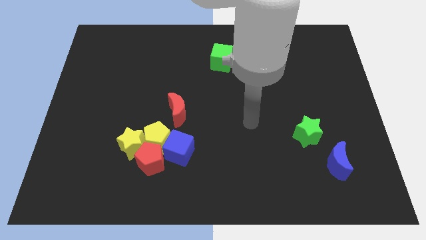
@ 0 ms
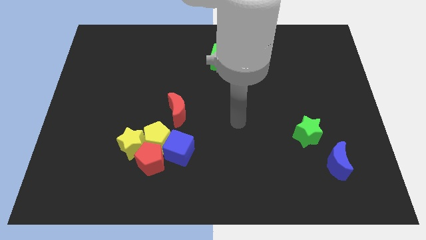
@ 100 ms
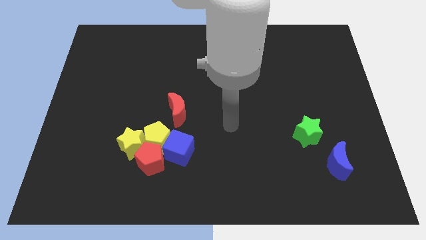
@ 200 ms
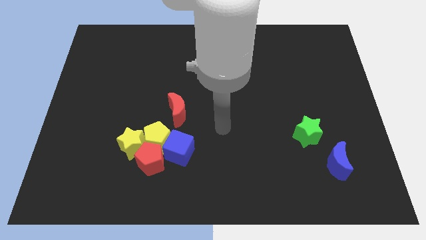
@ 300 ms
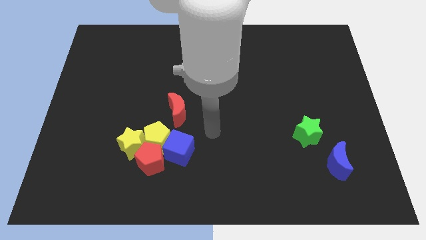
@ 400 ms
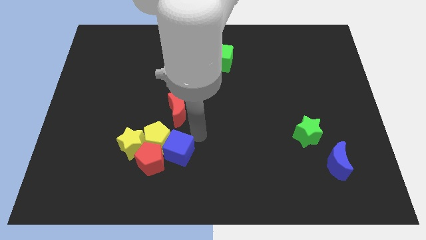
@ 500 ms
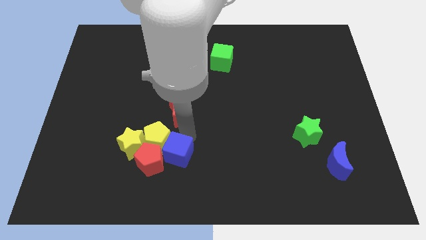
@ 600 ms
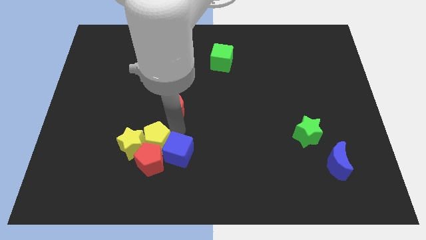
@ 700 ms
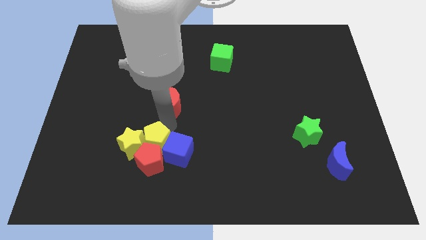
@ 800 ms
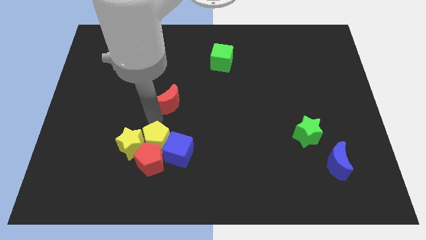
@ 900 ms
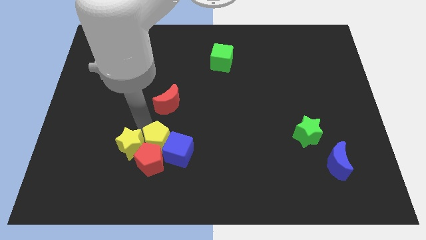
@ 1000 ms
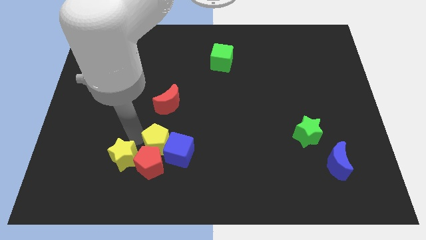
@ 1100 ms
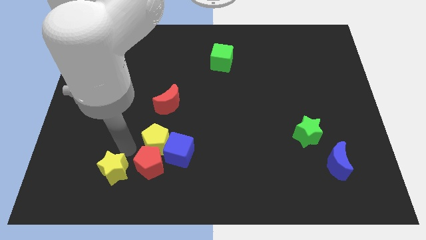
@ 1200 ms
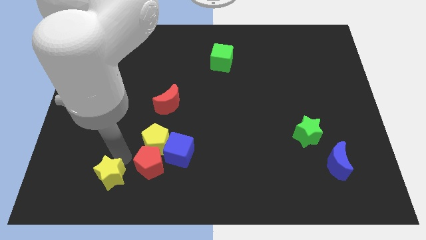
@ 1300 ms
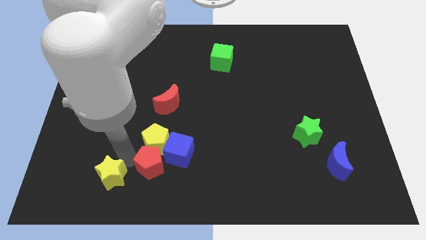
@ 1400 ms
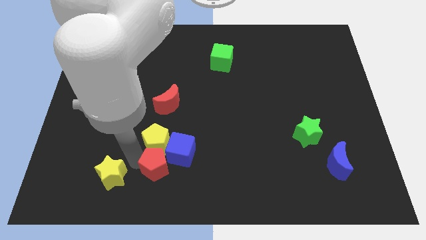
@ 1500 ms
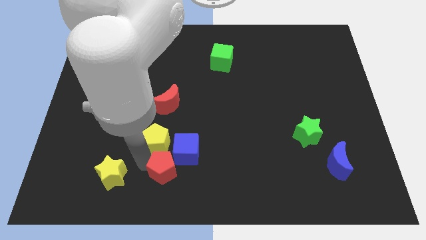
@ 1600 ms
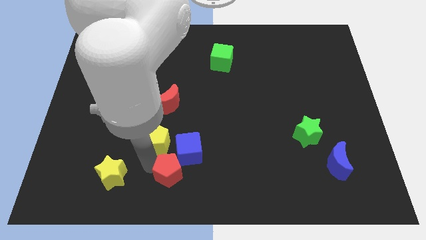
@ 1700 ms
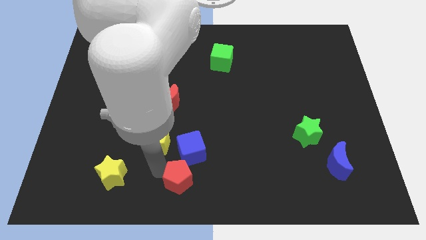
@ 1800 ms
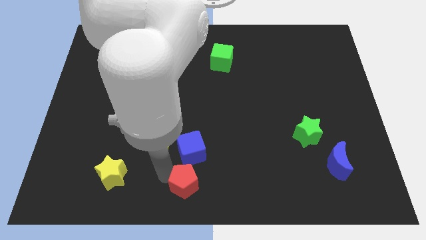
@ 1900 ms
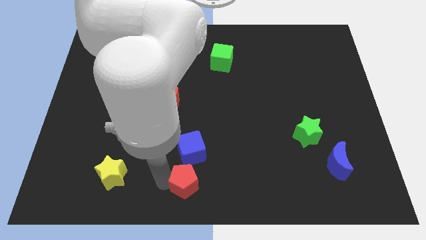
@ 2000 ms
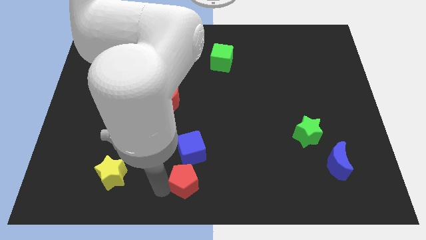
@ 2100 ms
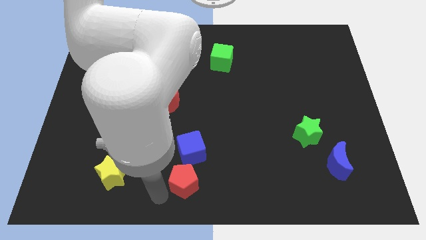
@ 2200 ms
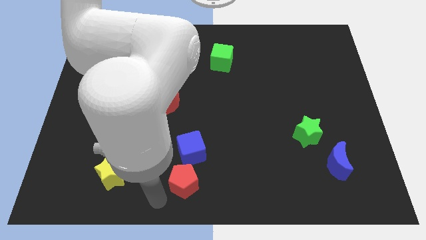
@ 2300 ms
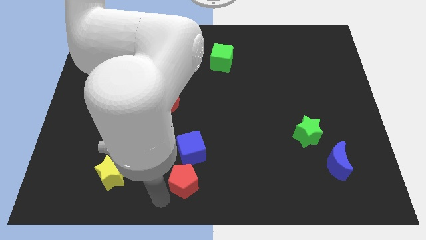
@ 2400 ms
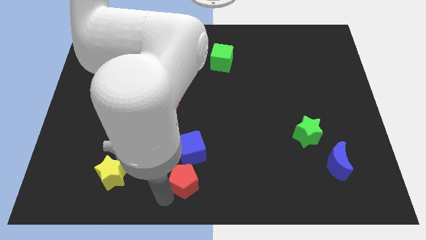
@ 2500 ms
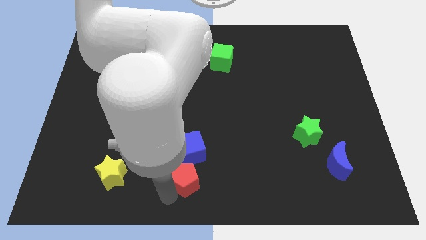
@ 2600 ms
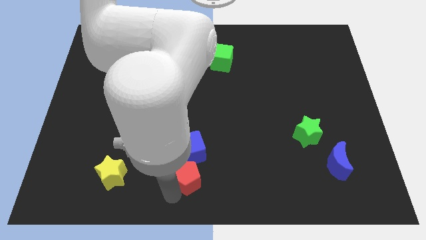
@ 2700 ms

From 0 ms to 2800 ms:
push the red pentagon slightly right

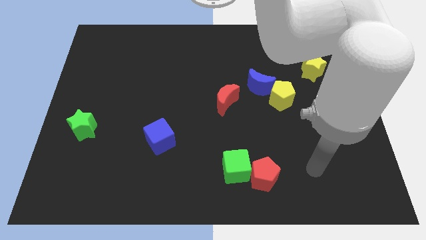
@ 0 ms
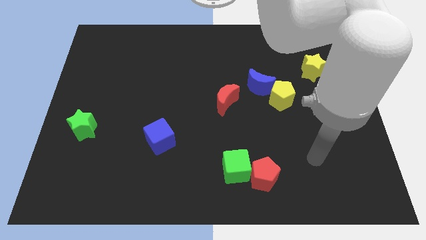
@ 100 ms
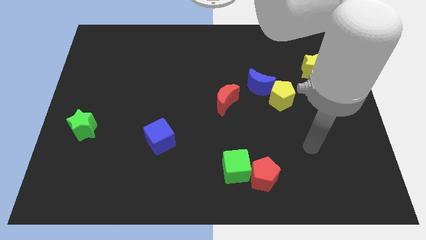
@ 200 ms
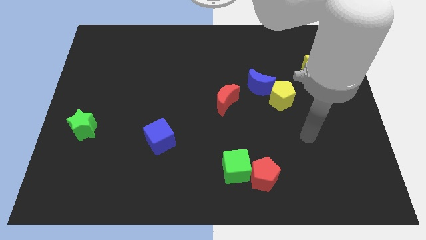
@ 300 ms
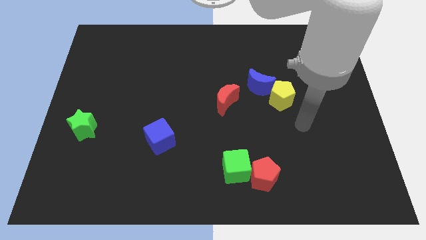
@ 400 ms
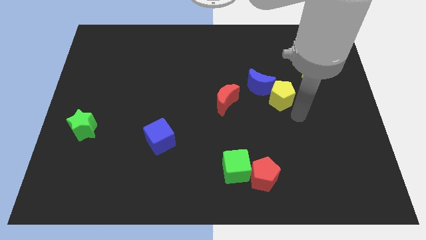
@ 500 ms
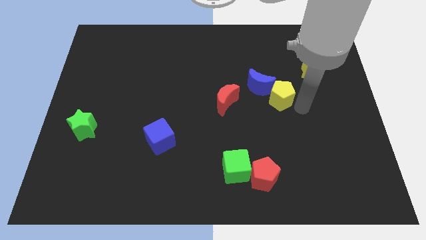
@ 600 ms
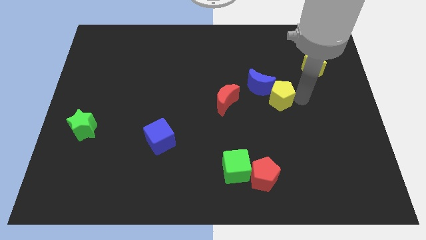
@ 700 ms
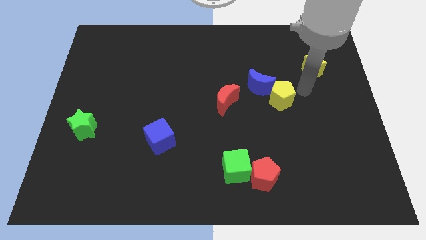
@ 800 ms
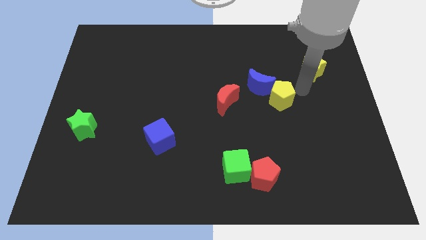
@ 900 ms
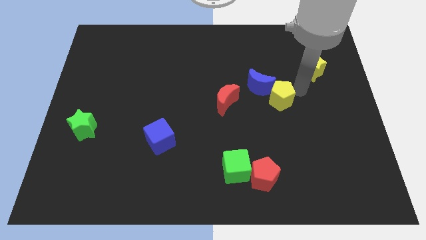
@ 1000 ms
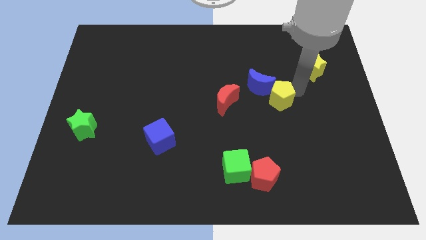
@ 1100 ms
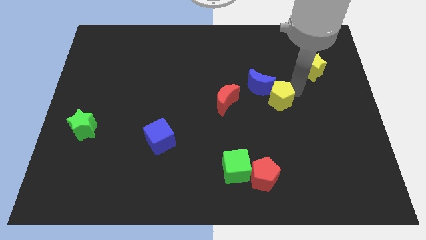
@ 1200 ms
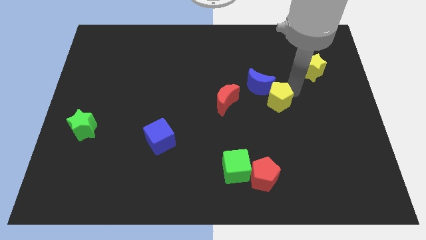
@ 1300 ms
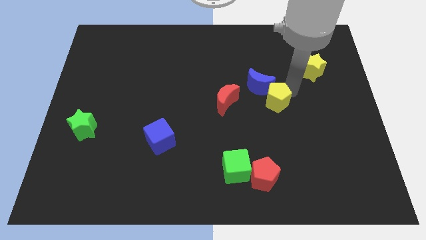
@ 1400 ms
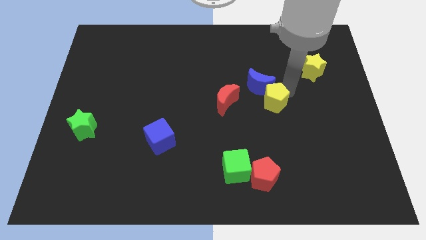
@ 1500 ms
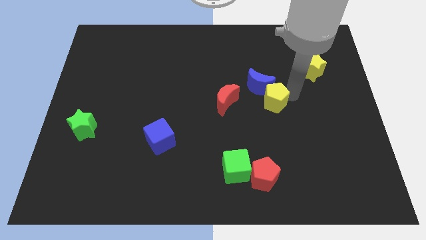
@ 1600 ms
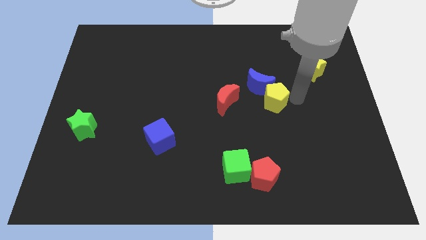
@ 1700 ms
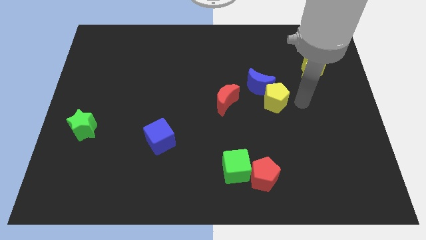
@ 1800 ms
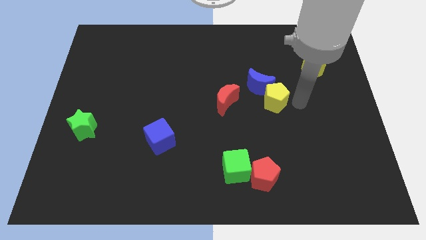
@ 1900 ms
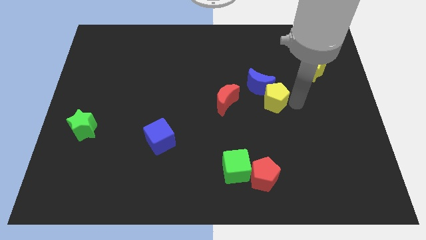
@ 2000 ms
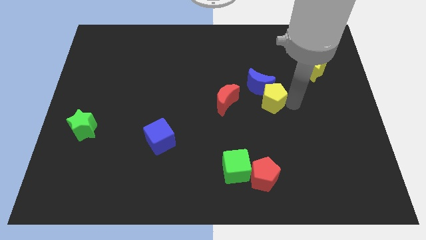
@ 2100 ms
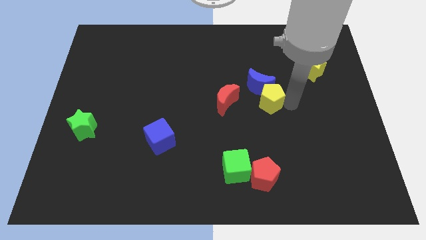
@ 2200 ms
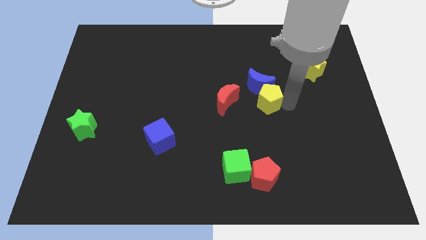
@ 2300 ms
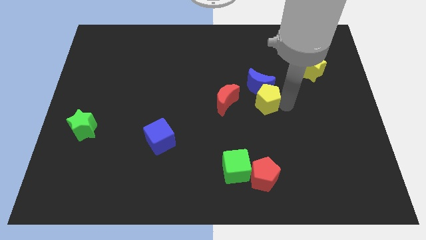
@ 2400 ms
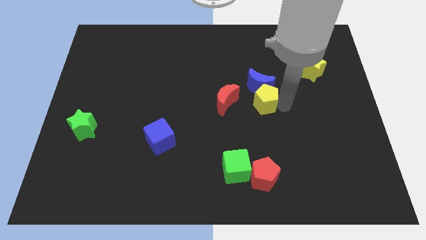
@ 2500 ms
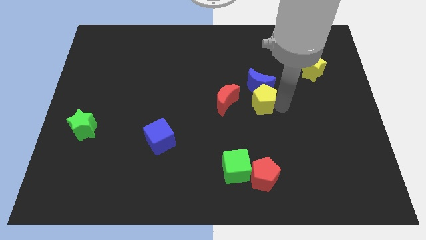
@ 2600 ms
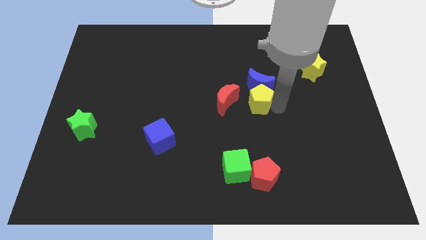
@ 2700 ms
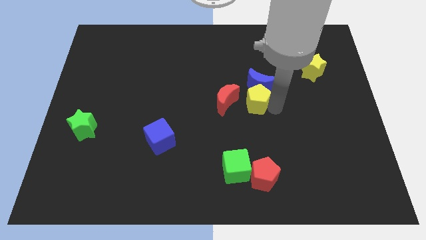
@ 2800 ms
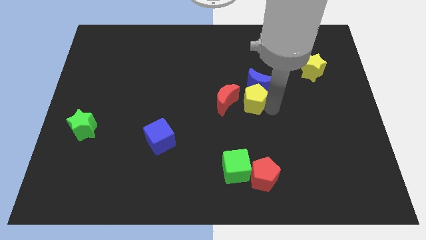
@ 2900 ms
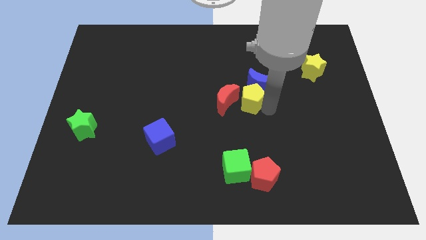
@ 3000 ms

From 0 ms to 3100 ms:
move the yellow pentagon somewhat to the left

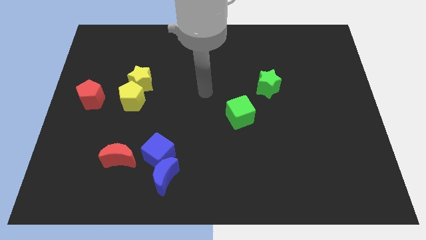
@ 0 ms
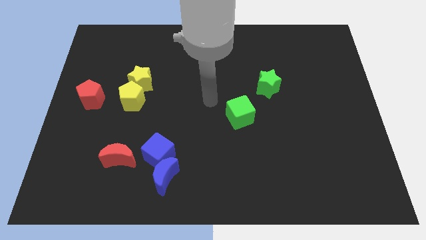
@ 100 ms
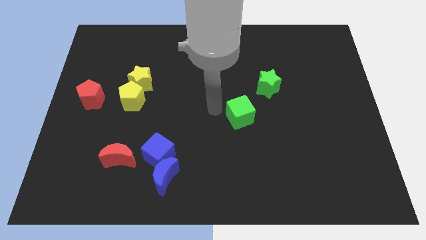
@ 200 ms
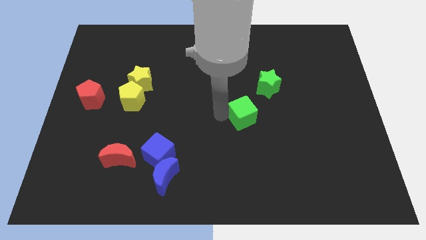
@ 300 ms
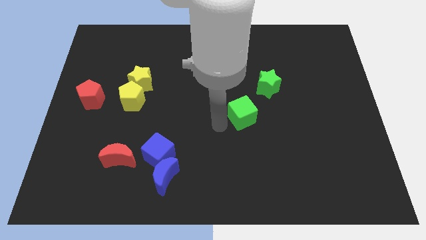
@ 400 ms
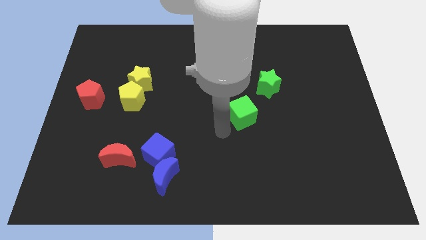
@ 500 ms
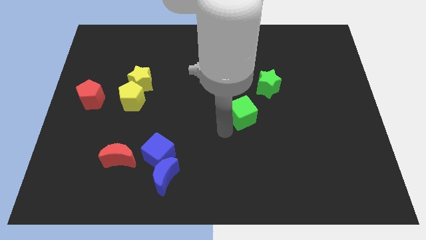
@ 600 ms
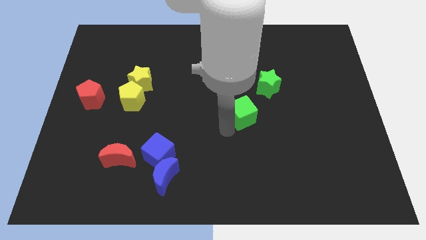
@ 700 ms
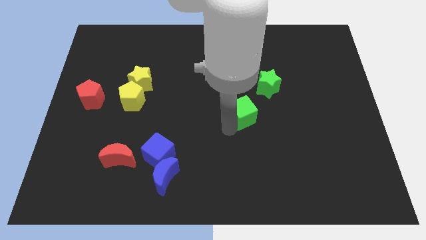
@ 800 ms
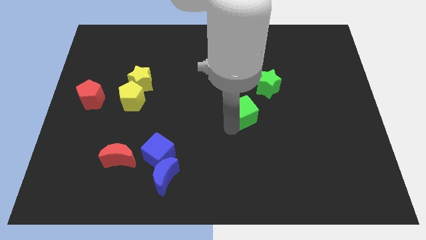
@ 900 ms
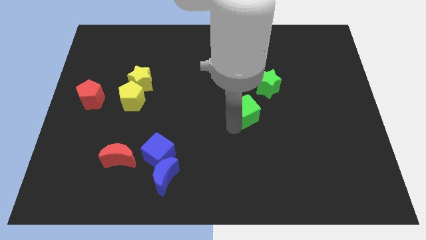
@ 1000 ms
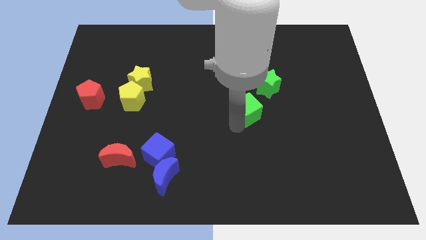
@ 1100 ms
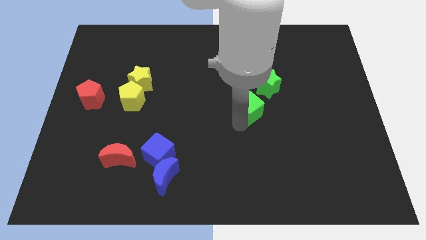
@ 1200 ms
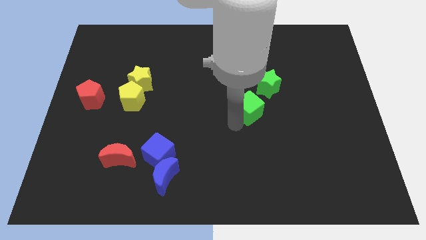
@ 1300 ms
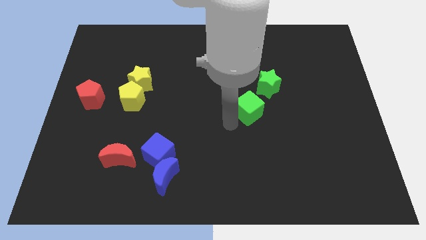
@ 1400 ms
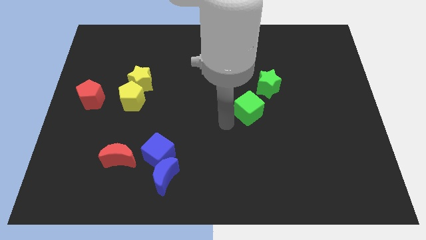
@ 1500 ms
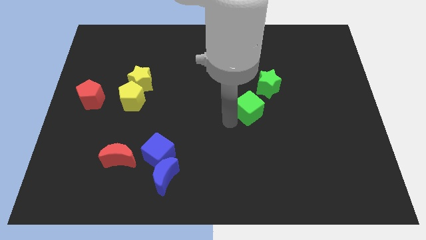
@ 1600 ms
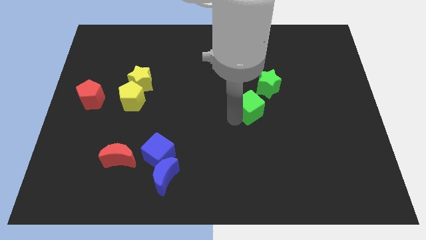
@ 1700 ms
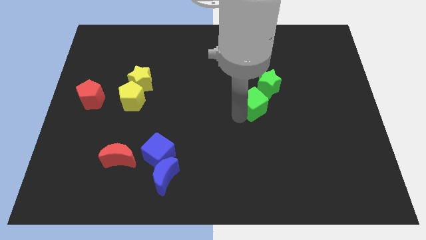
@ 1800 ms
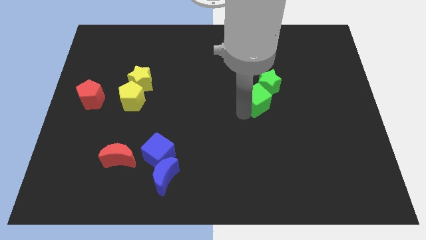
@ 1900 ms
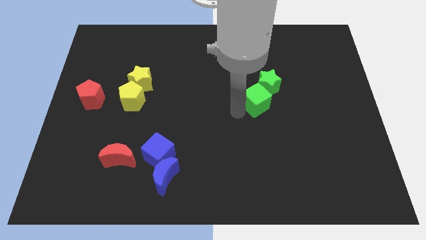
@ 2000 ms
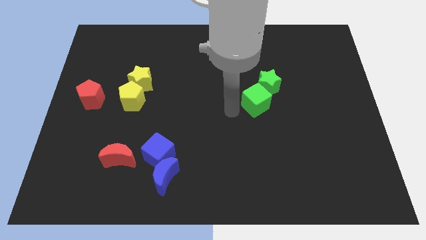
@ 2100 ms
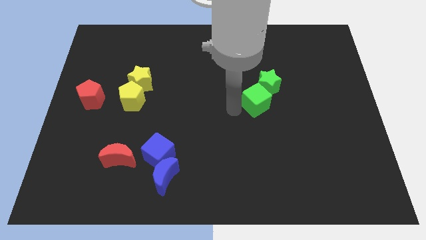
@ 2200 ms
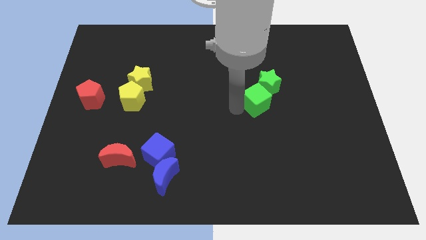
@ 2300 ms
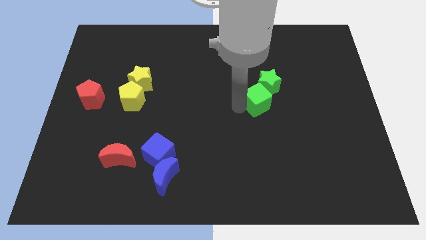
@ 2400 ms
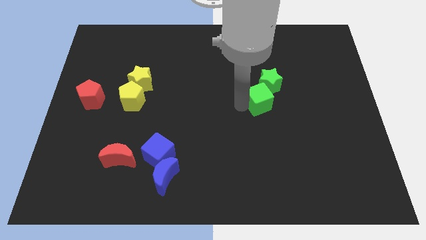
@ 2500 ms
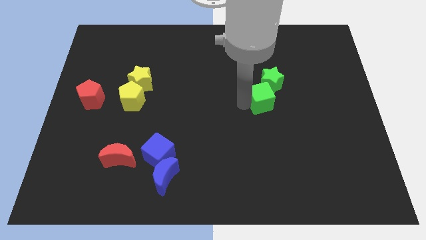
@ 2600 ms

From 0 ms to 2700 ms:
slightly move the green cube diagonally upwards and right
